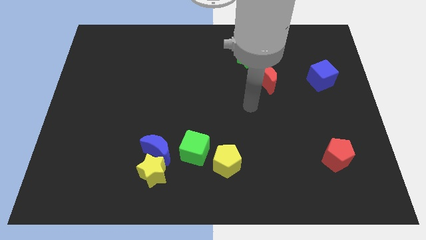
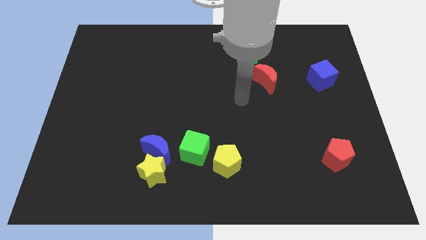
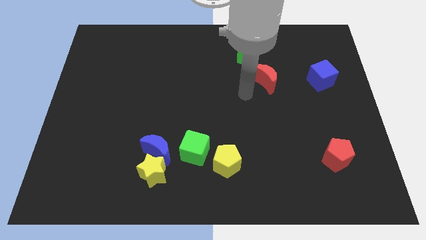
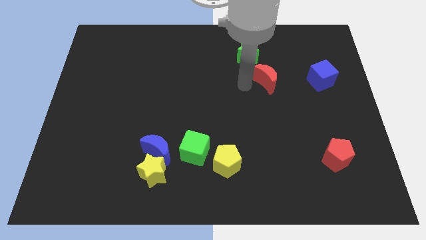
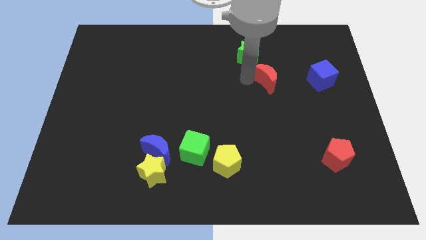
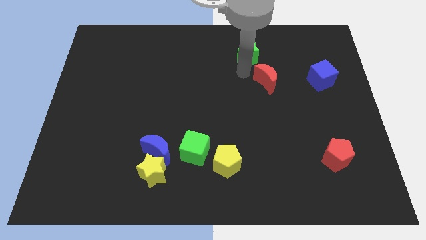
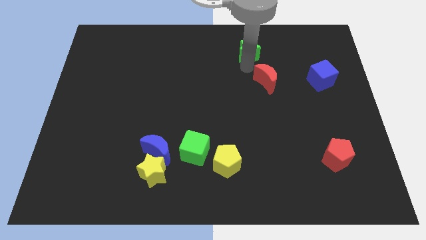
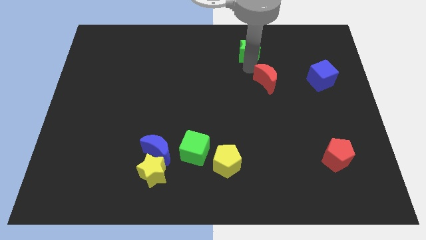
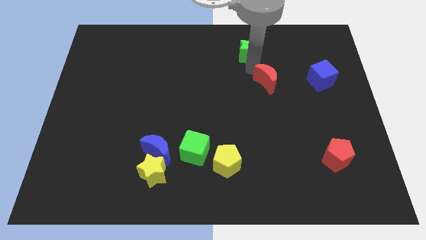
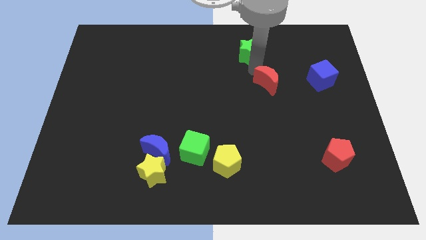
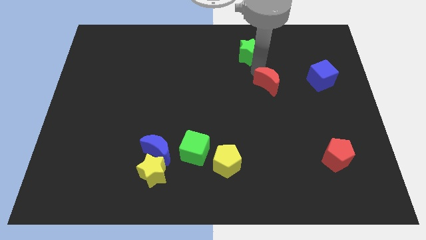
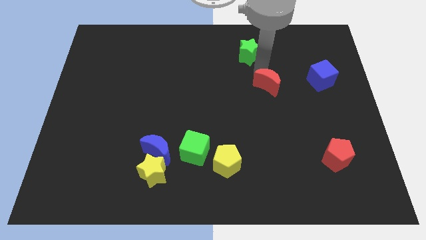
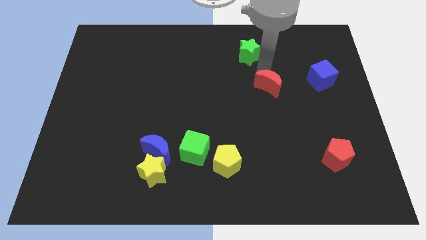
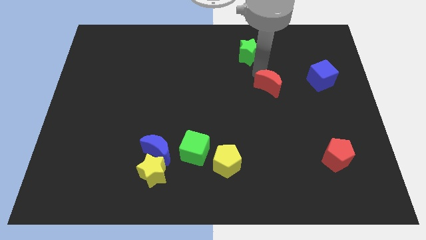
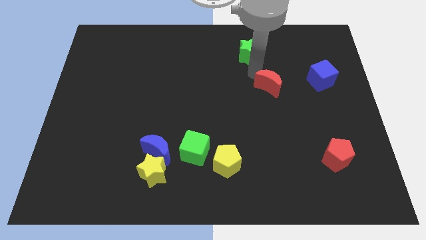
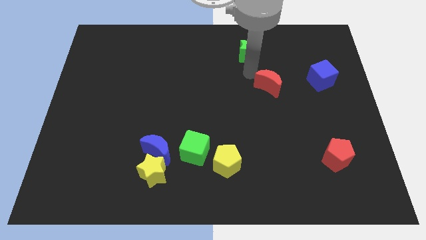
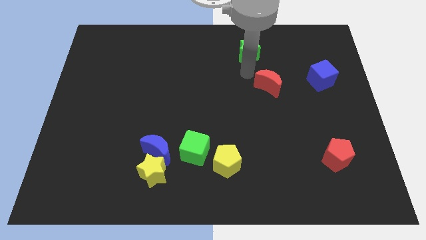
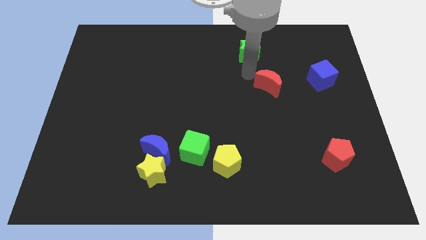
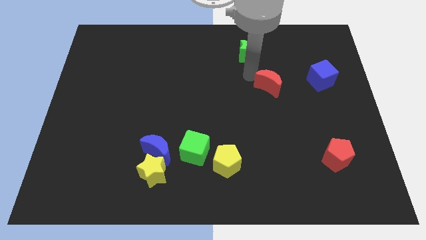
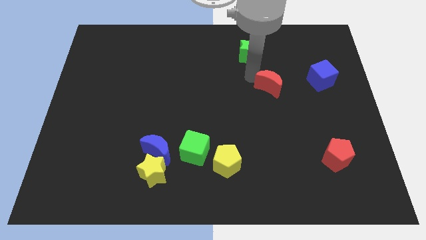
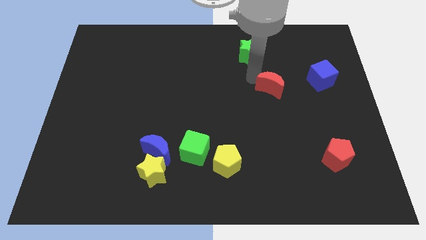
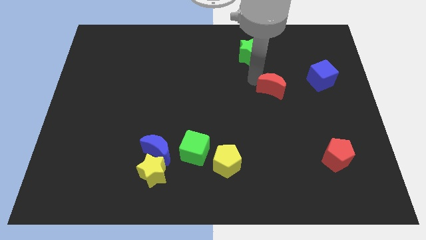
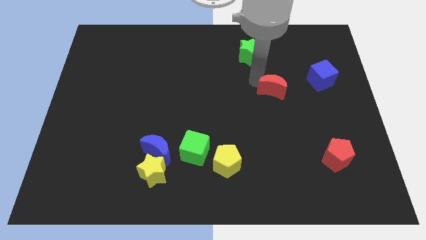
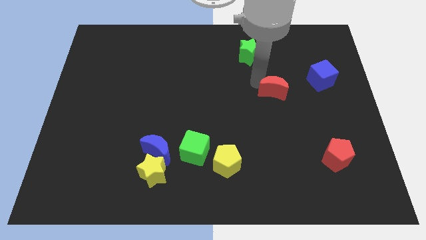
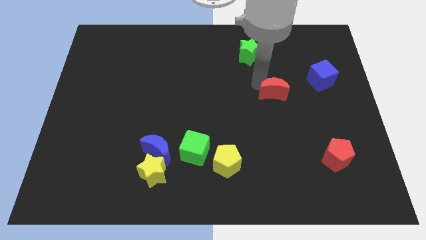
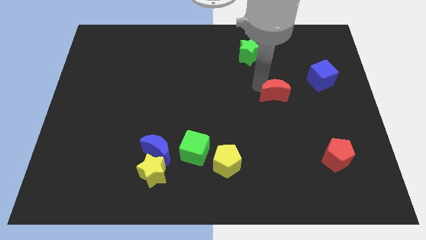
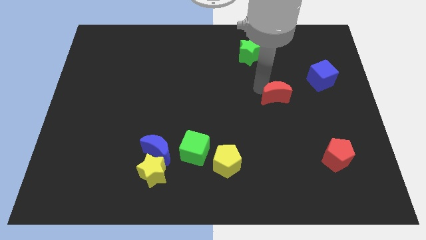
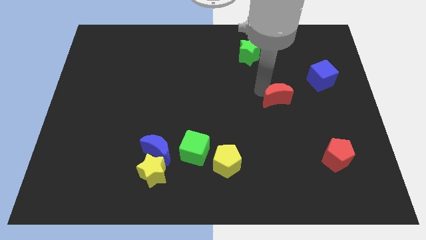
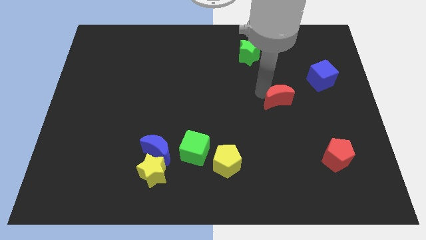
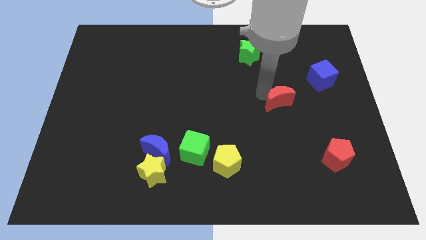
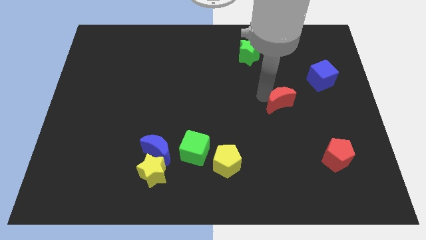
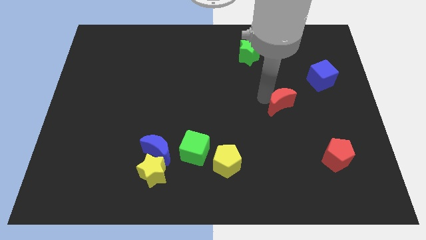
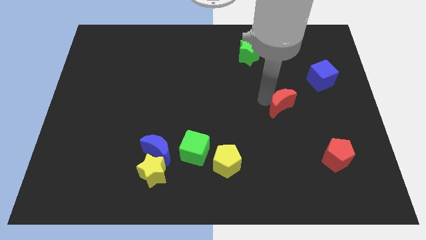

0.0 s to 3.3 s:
slightly slide the red moon downwards and to the right diagonally

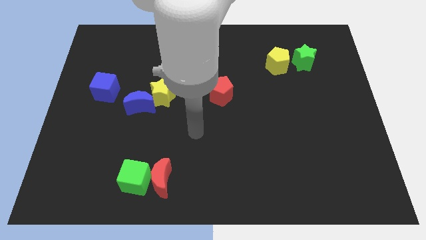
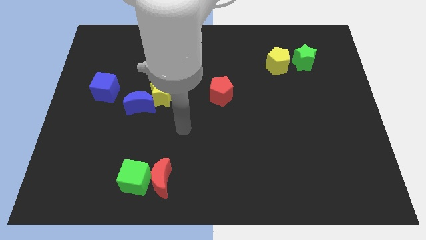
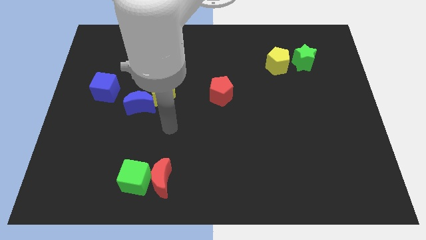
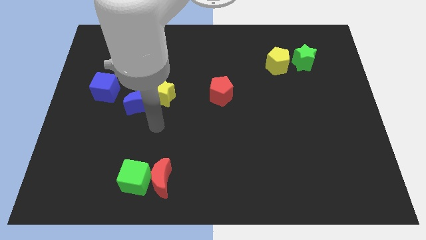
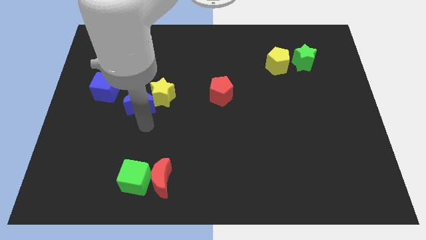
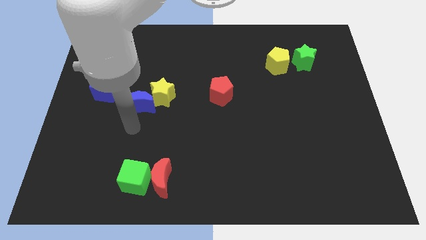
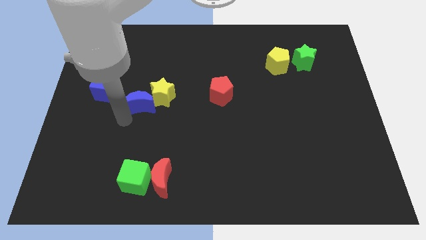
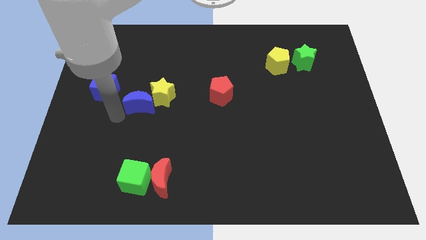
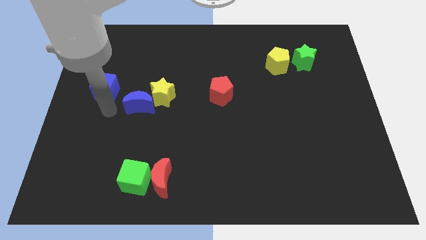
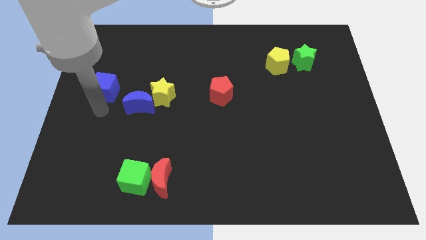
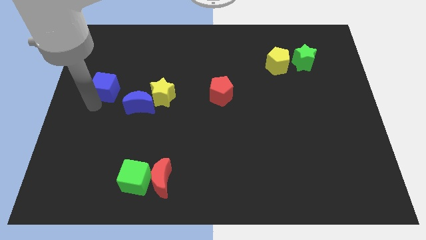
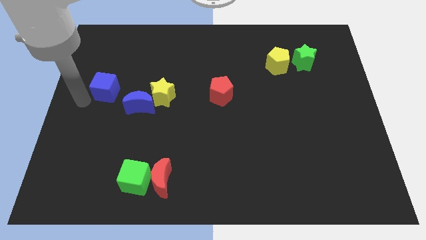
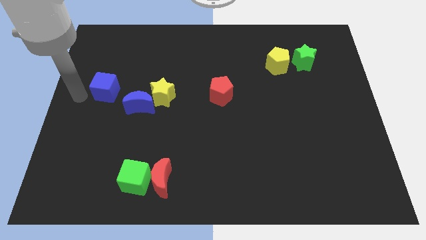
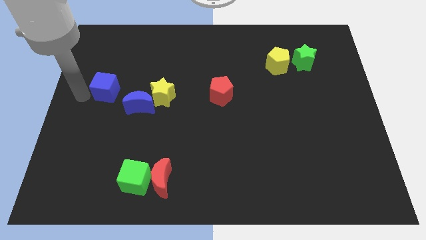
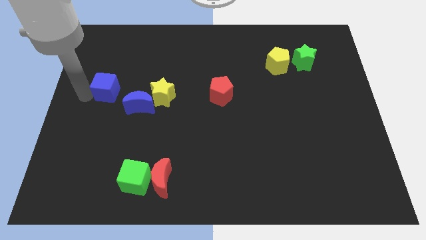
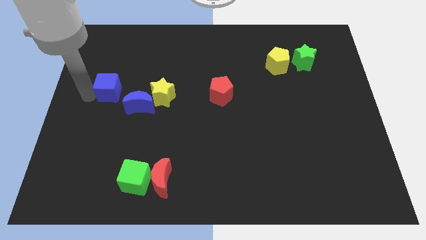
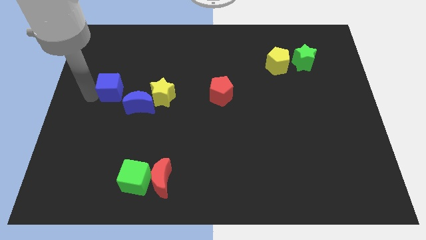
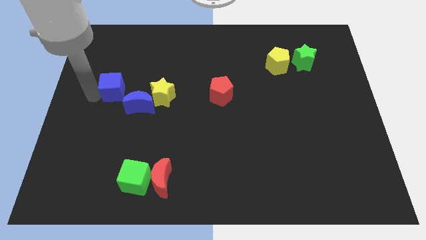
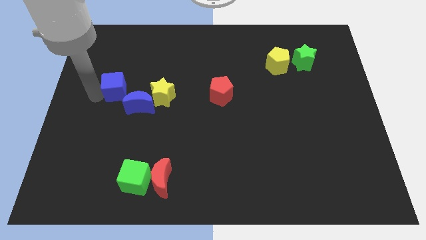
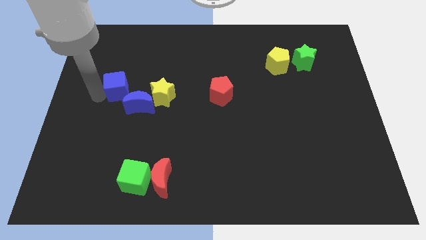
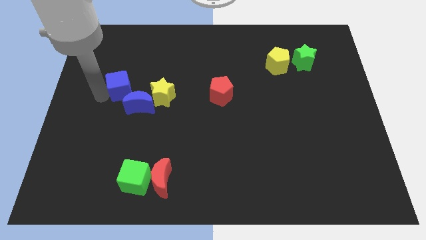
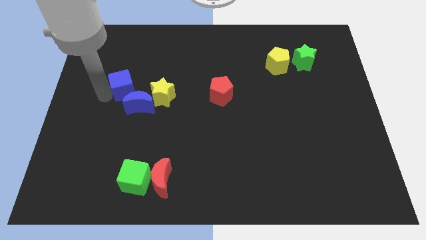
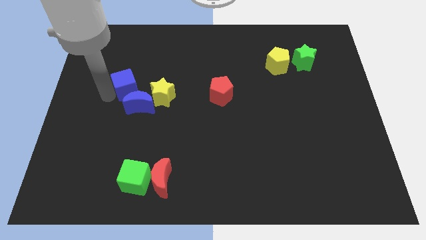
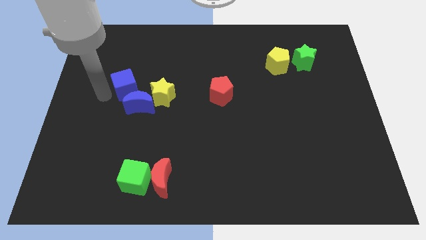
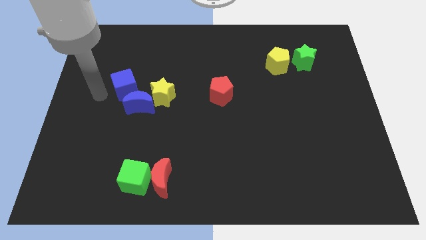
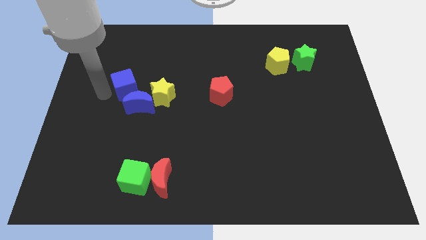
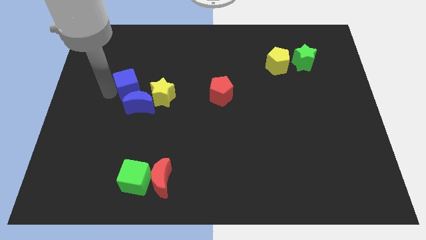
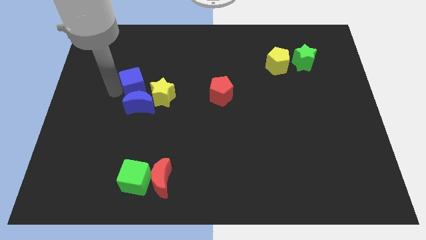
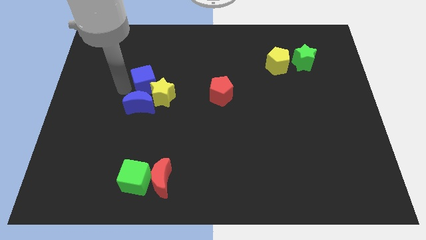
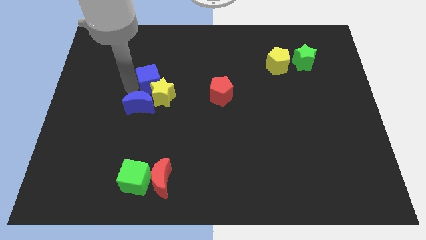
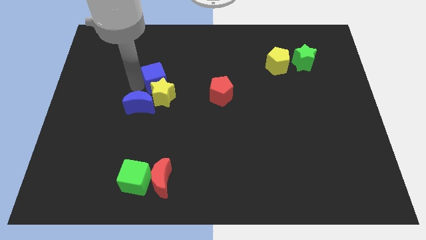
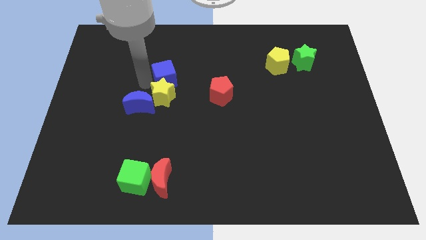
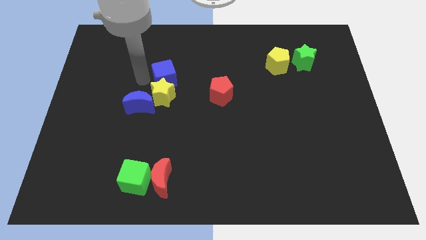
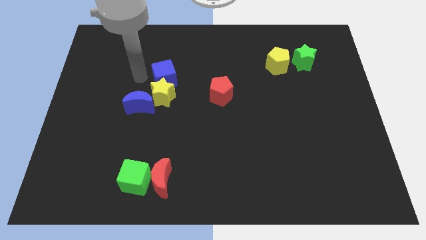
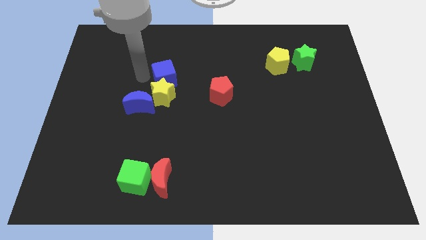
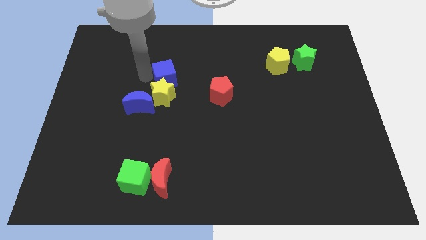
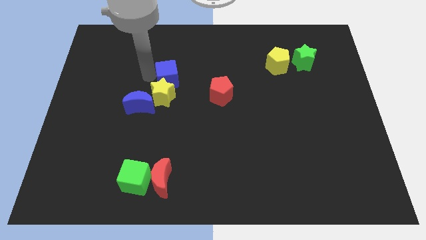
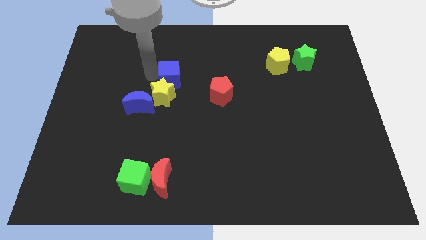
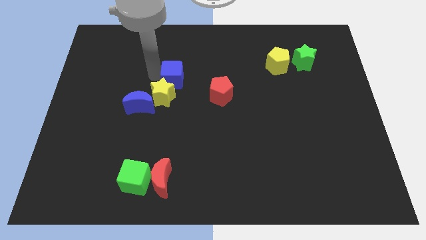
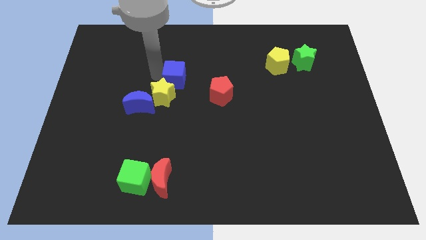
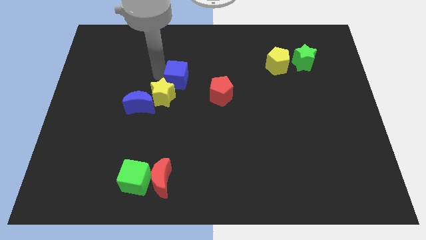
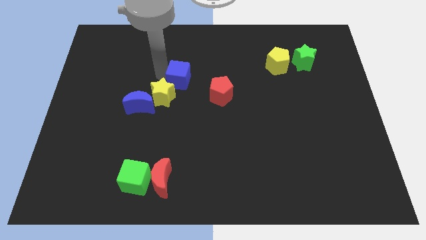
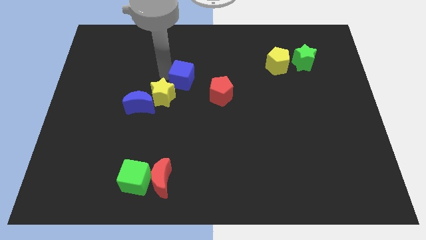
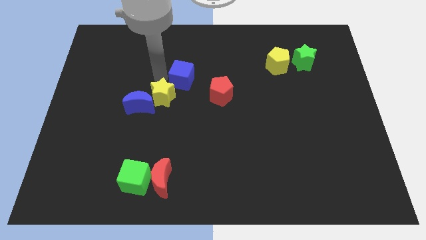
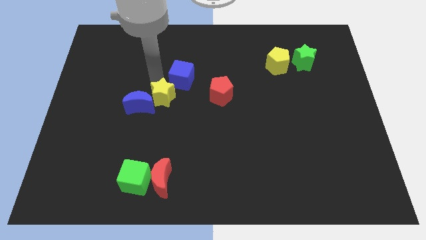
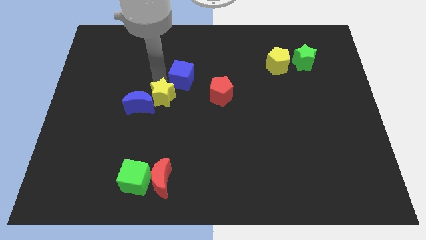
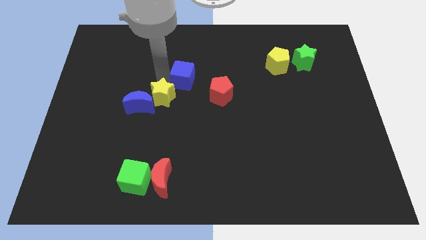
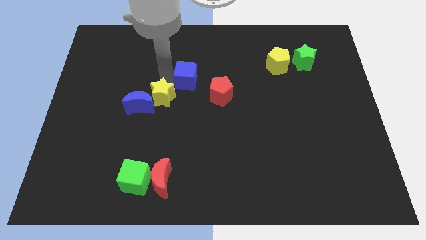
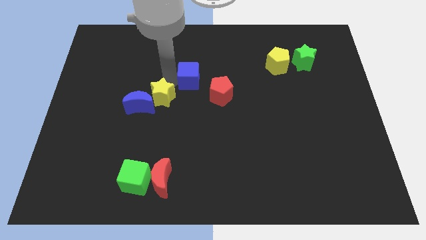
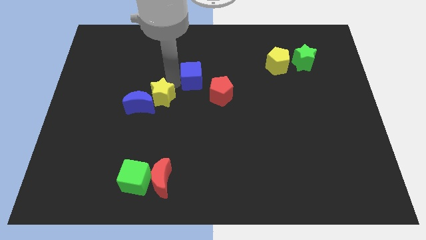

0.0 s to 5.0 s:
move the blue cube right
